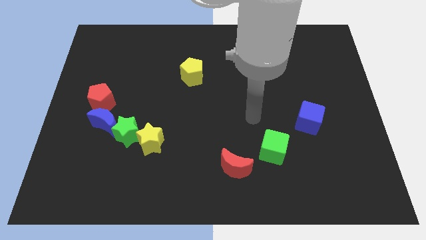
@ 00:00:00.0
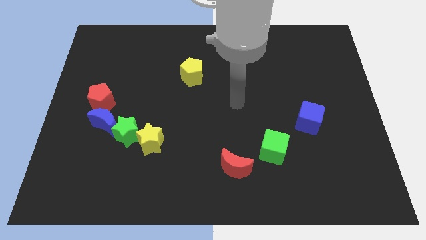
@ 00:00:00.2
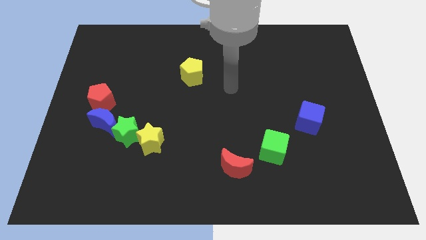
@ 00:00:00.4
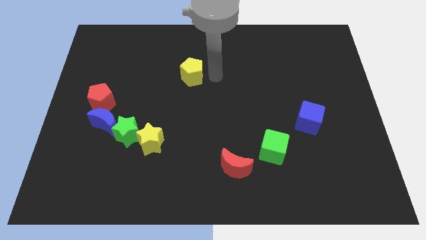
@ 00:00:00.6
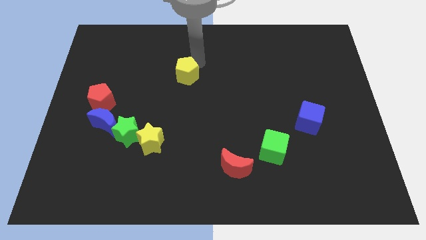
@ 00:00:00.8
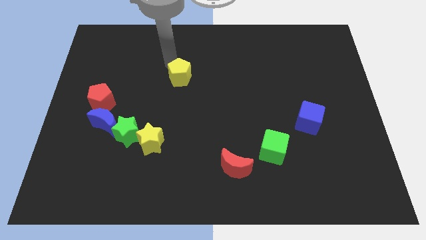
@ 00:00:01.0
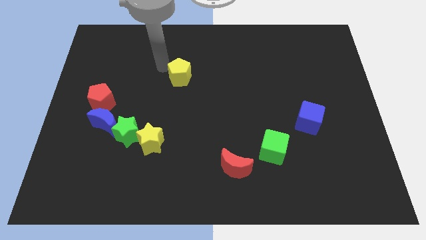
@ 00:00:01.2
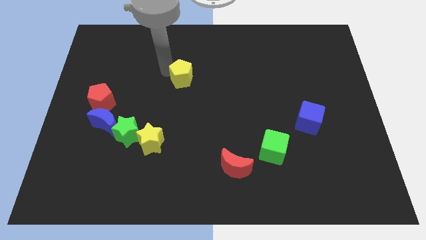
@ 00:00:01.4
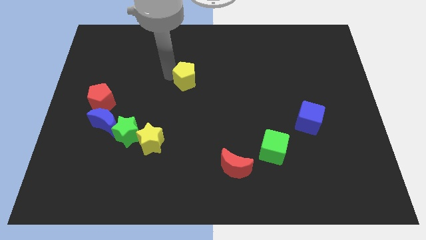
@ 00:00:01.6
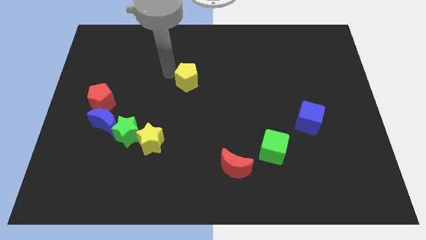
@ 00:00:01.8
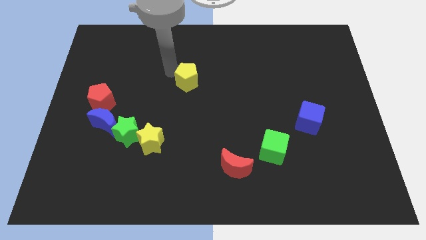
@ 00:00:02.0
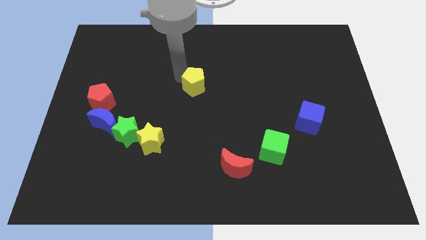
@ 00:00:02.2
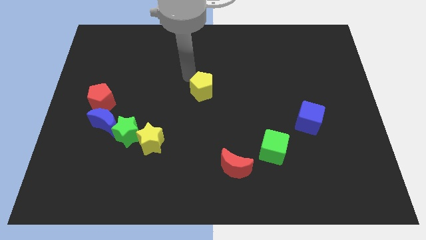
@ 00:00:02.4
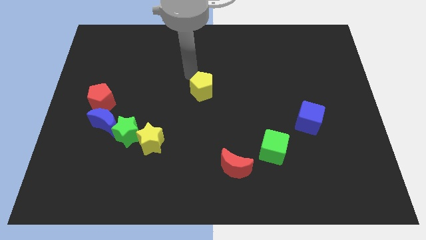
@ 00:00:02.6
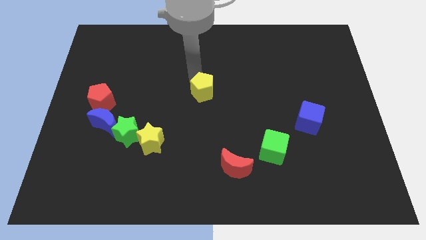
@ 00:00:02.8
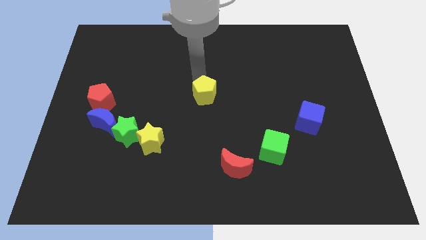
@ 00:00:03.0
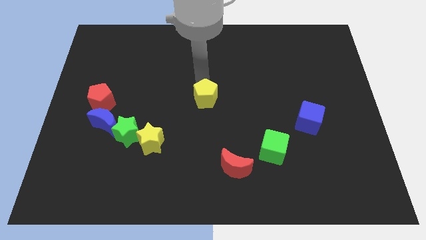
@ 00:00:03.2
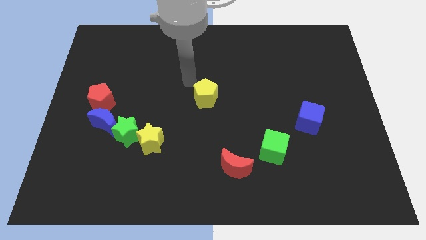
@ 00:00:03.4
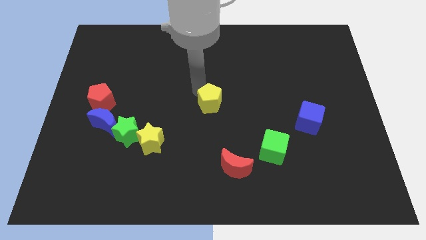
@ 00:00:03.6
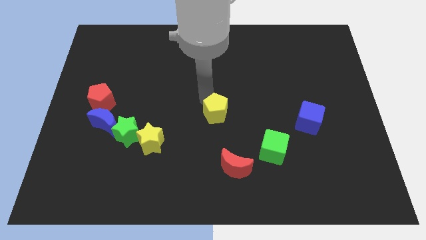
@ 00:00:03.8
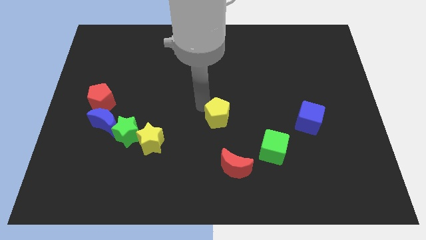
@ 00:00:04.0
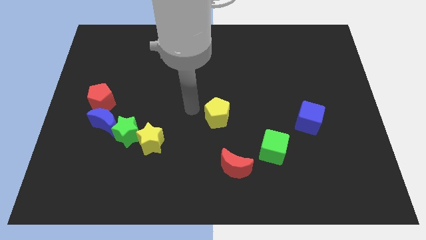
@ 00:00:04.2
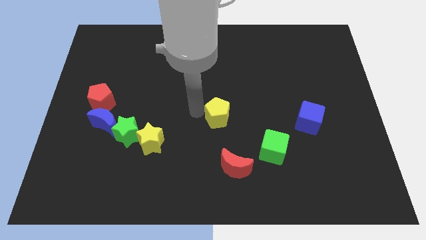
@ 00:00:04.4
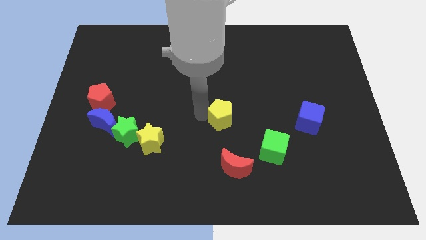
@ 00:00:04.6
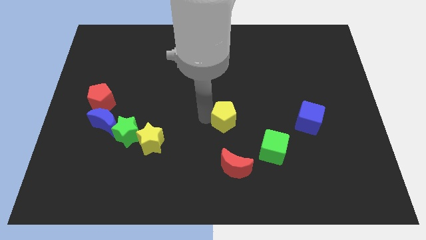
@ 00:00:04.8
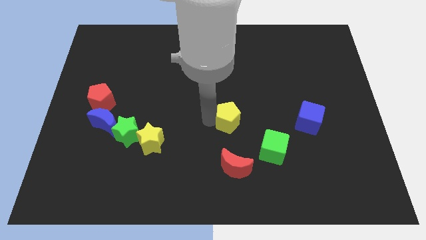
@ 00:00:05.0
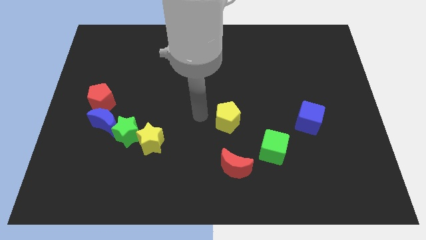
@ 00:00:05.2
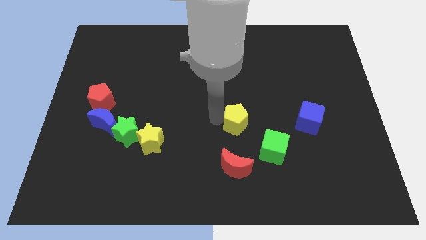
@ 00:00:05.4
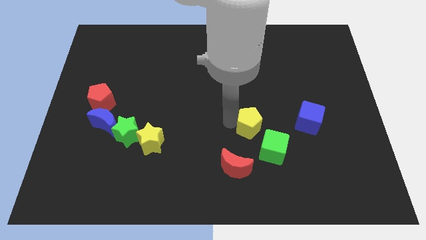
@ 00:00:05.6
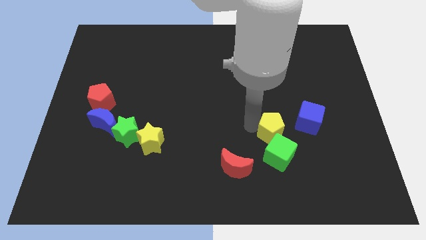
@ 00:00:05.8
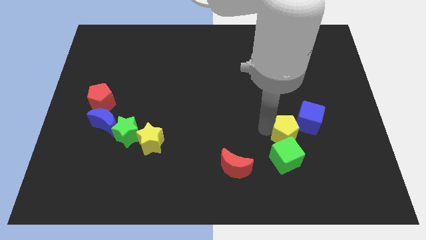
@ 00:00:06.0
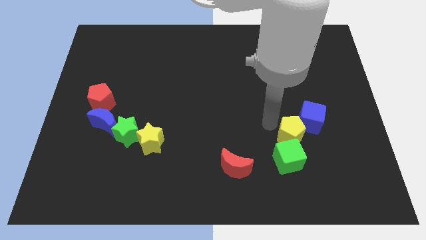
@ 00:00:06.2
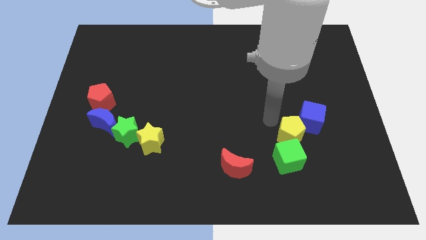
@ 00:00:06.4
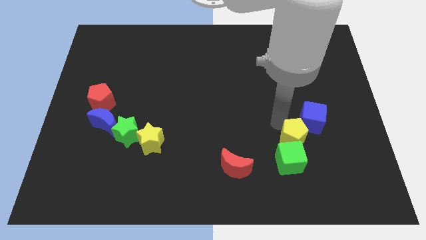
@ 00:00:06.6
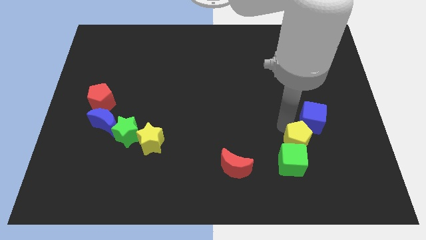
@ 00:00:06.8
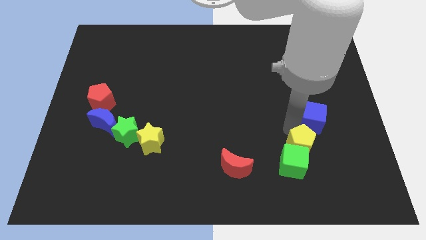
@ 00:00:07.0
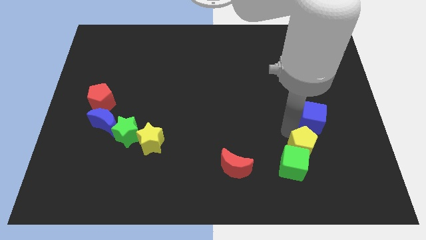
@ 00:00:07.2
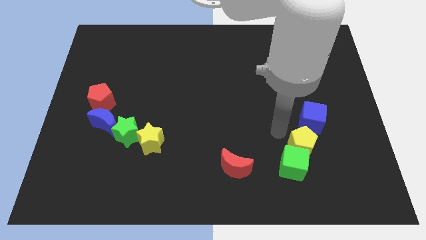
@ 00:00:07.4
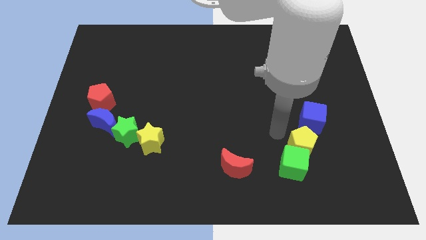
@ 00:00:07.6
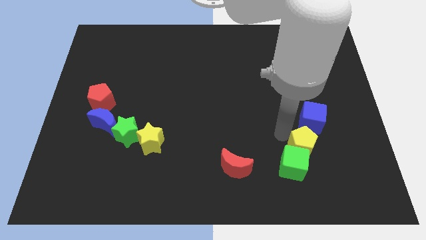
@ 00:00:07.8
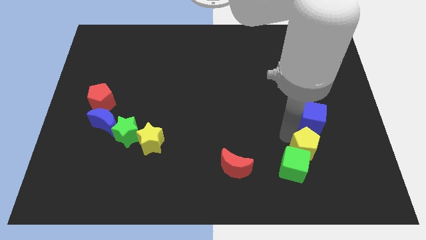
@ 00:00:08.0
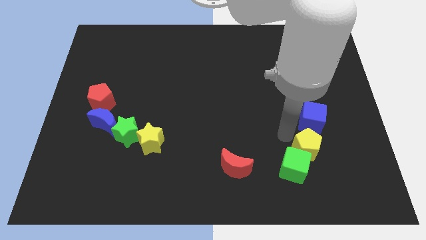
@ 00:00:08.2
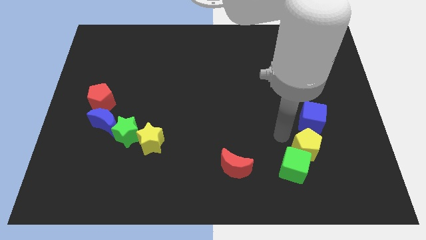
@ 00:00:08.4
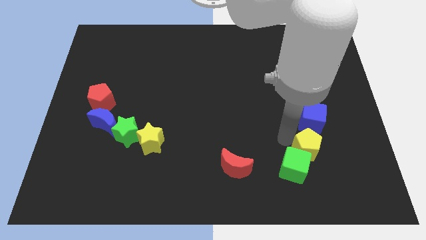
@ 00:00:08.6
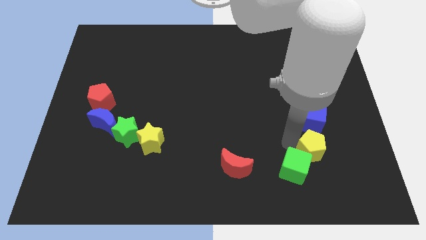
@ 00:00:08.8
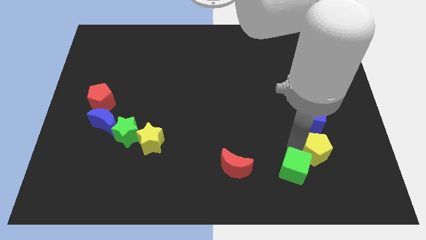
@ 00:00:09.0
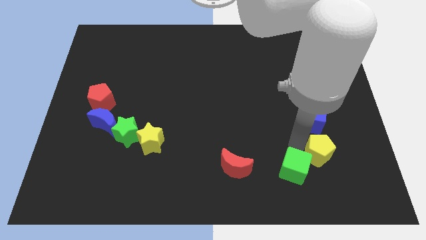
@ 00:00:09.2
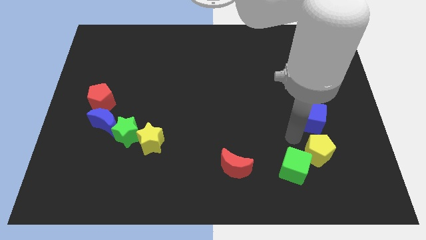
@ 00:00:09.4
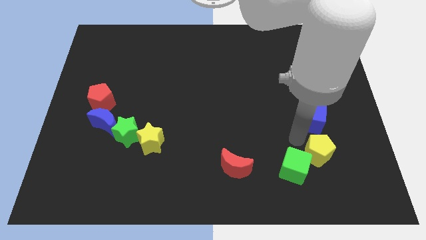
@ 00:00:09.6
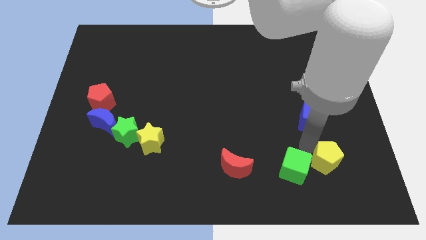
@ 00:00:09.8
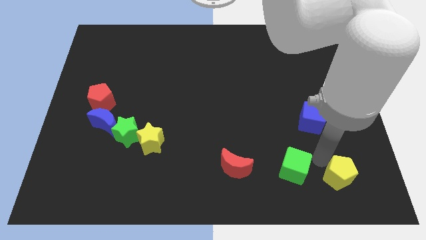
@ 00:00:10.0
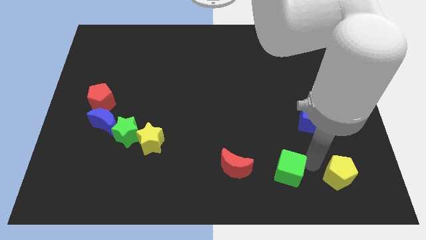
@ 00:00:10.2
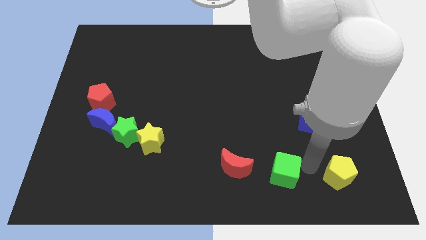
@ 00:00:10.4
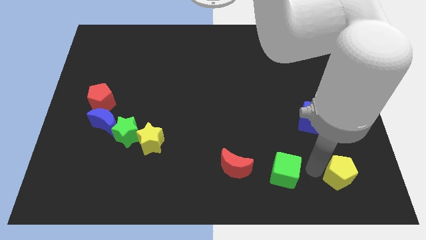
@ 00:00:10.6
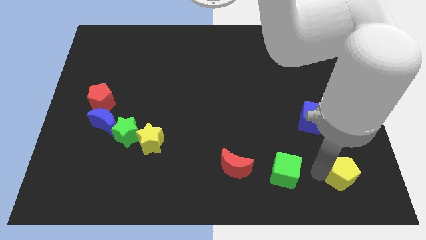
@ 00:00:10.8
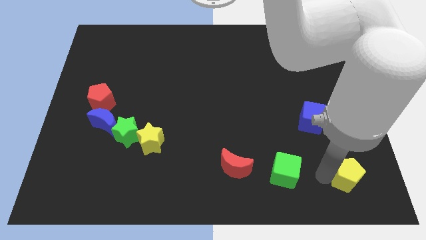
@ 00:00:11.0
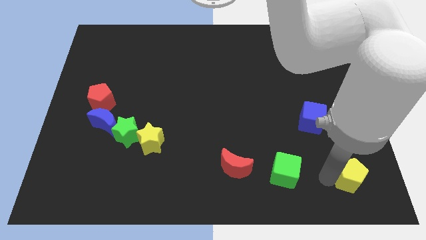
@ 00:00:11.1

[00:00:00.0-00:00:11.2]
put the yellow pentagon to the bottom right corner

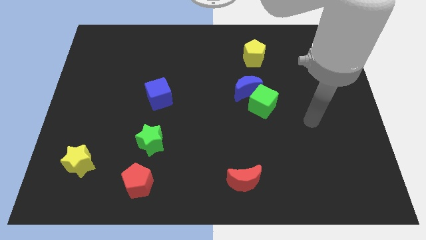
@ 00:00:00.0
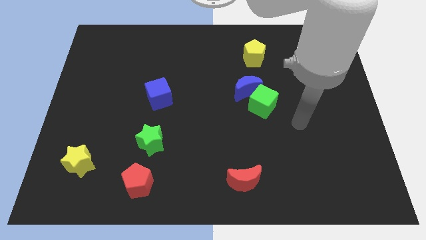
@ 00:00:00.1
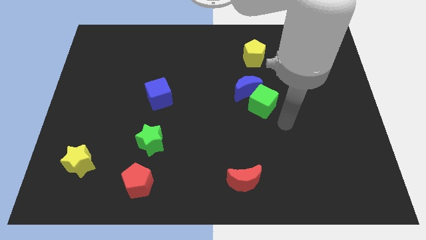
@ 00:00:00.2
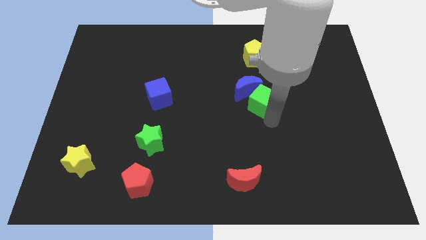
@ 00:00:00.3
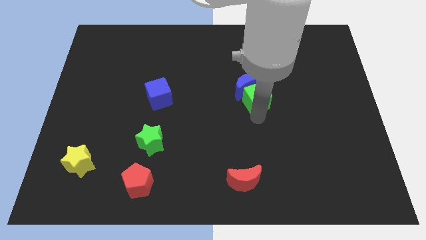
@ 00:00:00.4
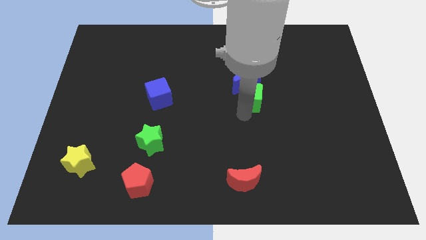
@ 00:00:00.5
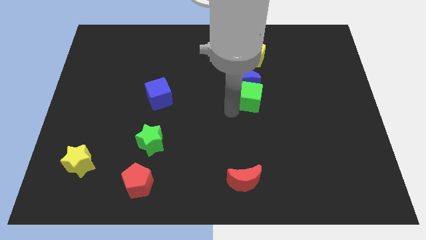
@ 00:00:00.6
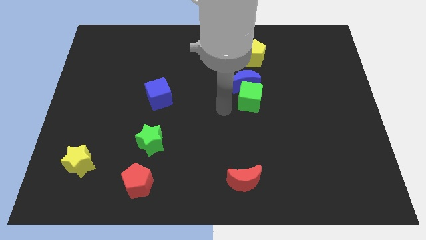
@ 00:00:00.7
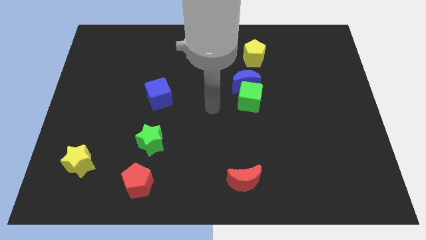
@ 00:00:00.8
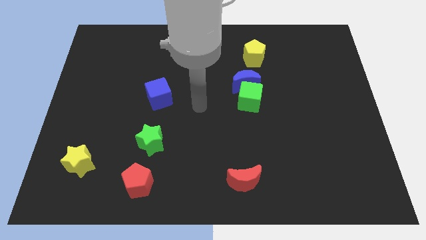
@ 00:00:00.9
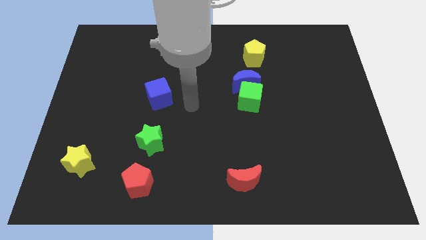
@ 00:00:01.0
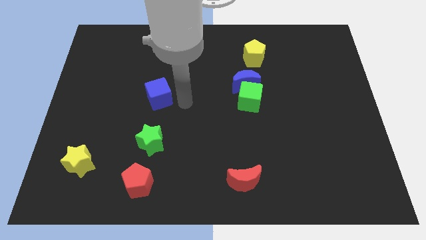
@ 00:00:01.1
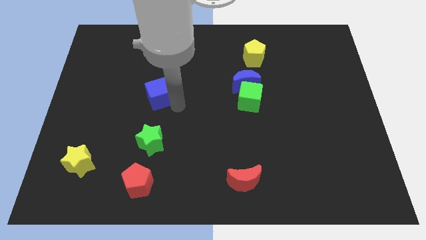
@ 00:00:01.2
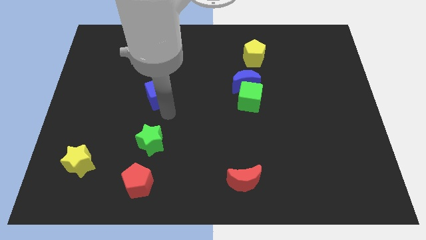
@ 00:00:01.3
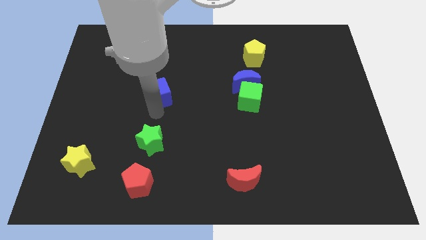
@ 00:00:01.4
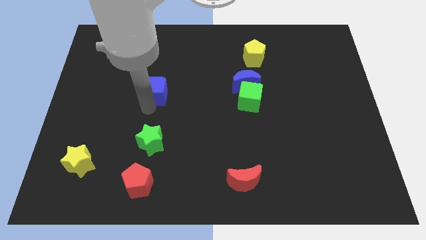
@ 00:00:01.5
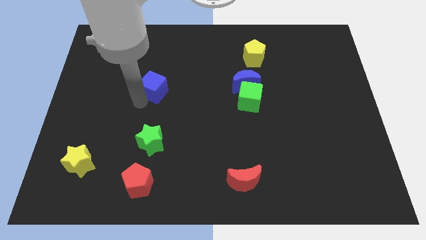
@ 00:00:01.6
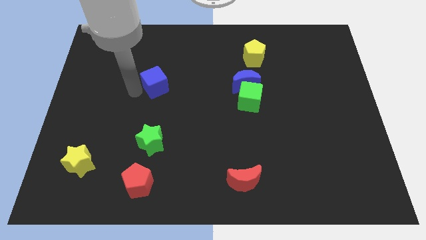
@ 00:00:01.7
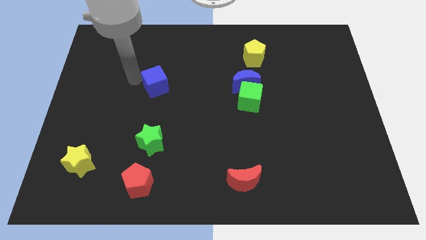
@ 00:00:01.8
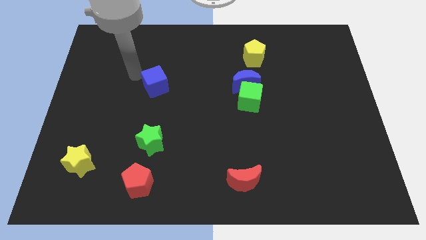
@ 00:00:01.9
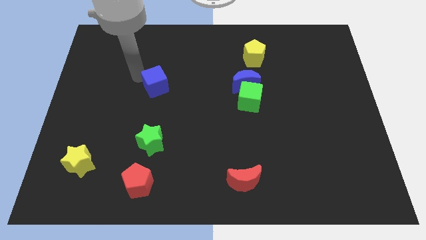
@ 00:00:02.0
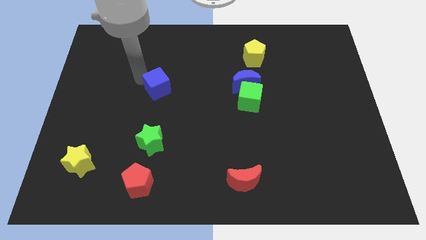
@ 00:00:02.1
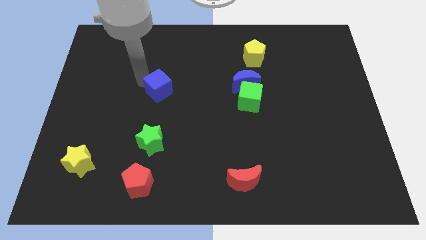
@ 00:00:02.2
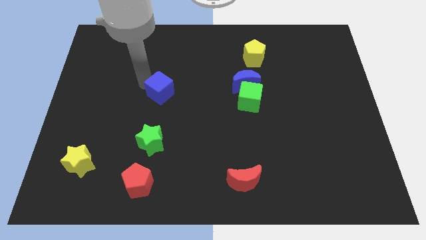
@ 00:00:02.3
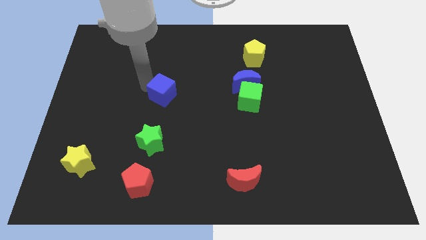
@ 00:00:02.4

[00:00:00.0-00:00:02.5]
push the blue cube to the middle
